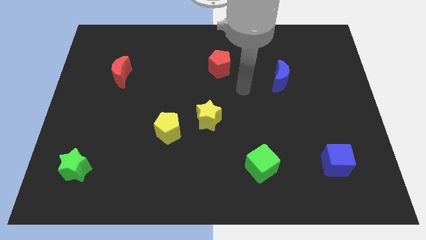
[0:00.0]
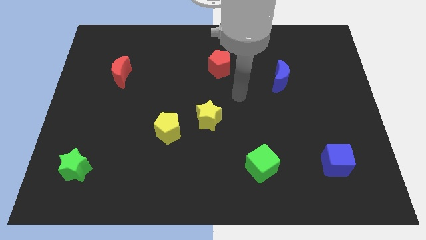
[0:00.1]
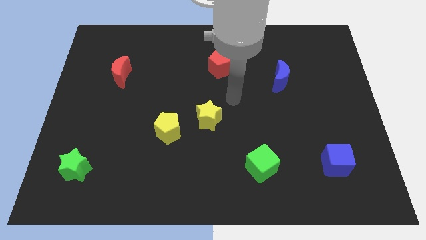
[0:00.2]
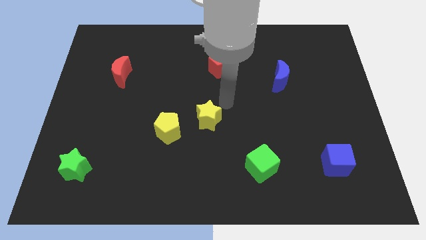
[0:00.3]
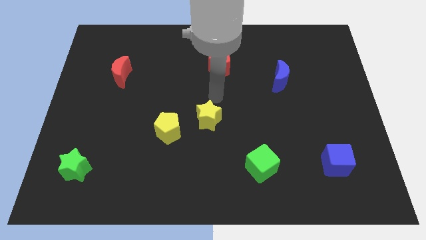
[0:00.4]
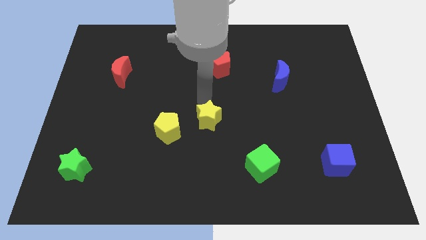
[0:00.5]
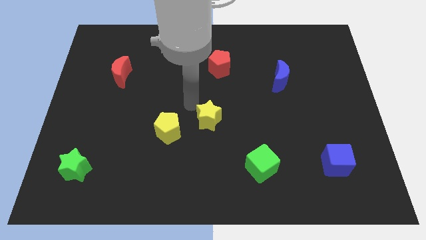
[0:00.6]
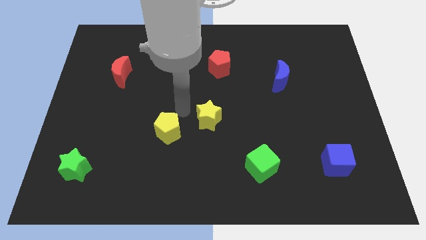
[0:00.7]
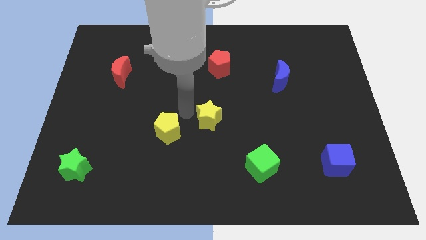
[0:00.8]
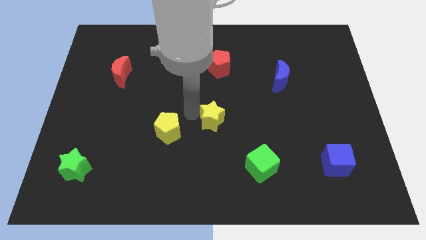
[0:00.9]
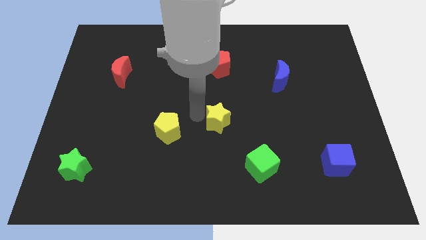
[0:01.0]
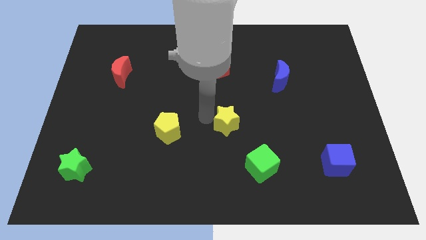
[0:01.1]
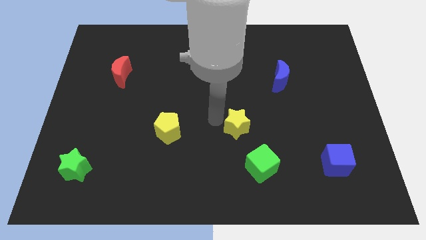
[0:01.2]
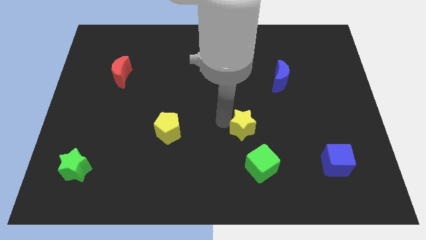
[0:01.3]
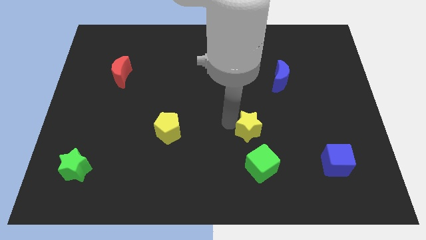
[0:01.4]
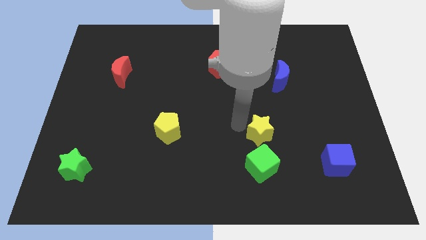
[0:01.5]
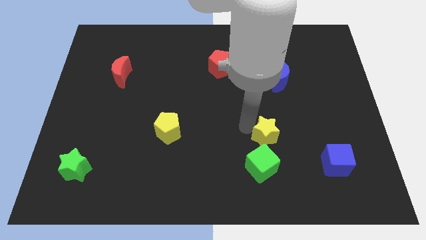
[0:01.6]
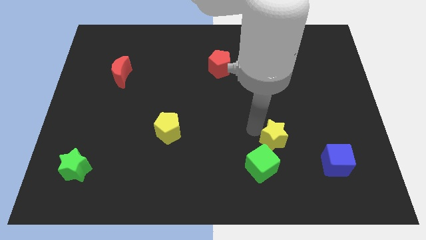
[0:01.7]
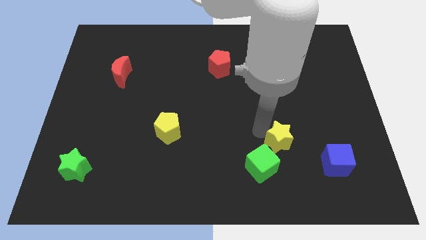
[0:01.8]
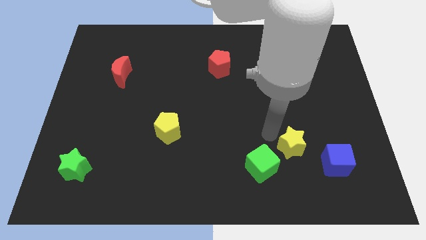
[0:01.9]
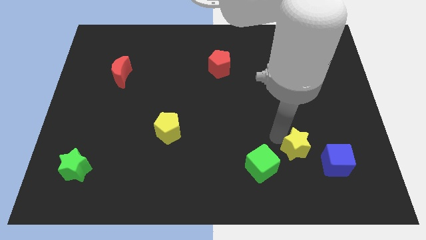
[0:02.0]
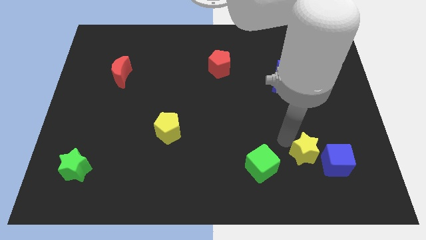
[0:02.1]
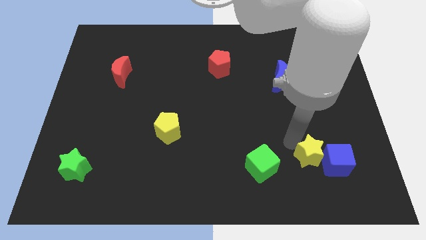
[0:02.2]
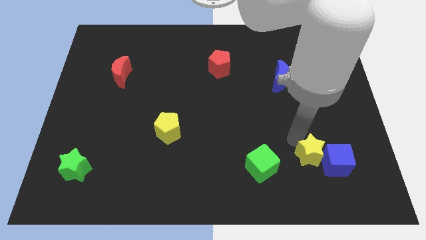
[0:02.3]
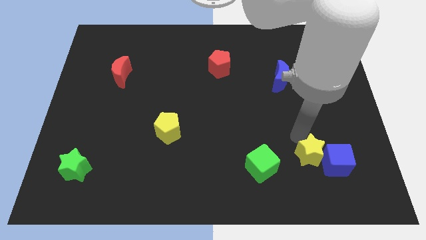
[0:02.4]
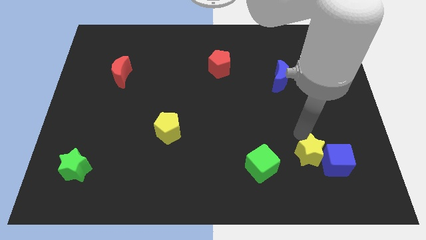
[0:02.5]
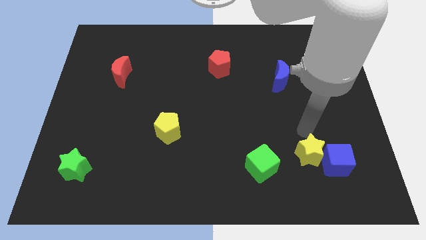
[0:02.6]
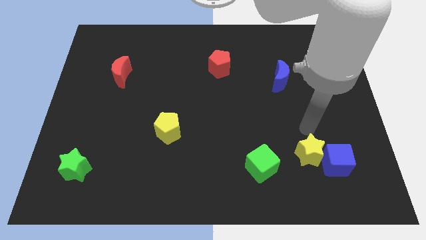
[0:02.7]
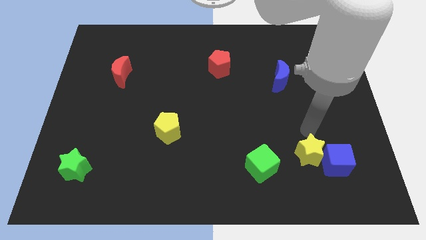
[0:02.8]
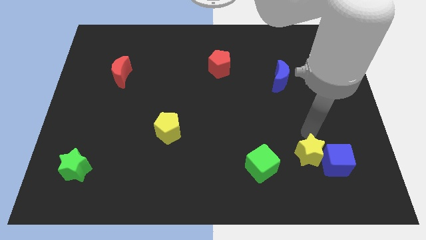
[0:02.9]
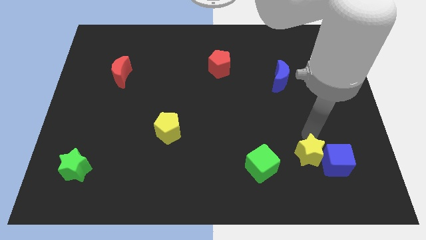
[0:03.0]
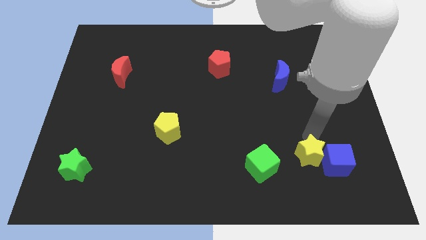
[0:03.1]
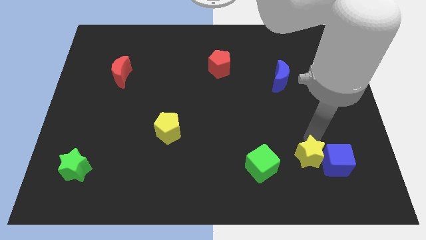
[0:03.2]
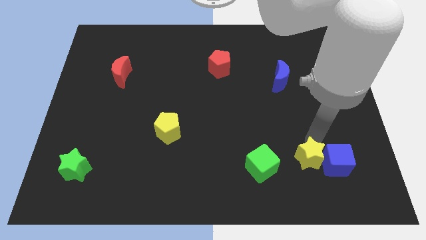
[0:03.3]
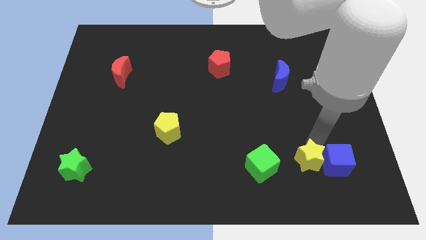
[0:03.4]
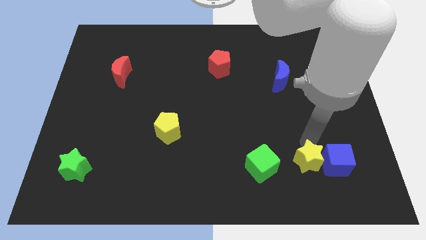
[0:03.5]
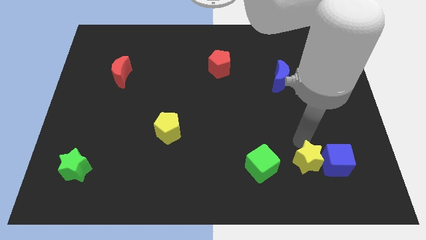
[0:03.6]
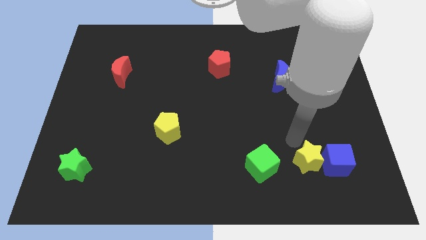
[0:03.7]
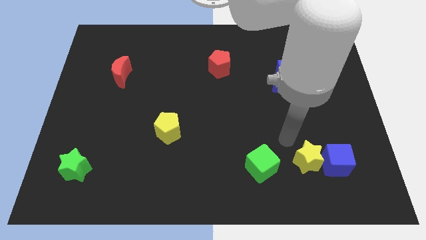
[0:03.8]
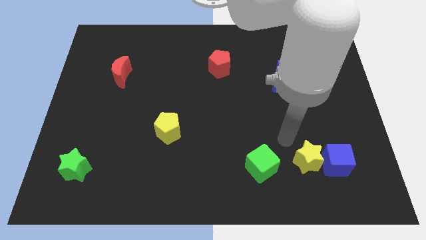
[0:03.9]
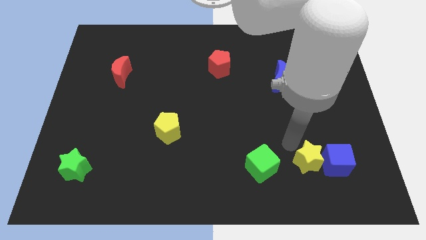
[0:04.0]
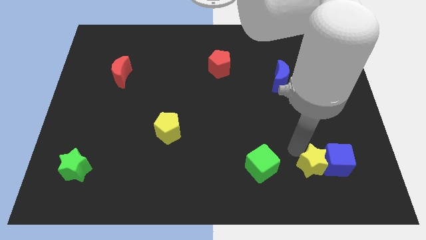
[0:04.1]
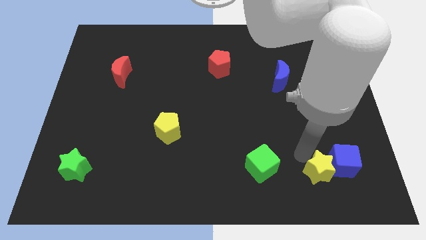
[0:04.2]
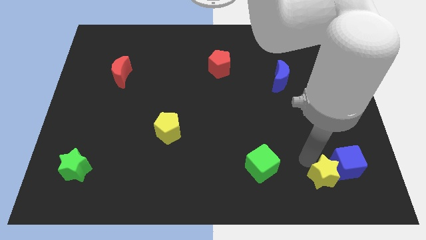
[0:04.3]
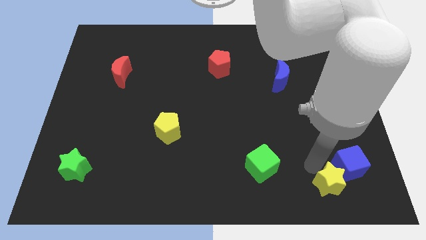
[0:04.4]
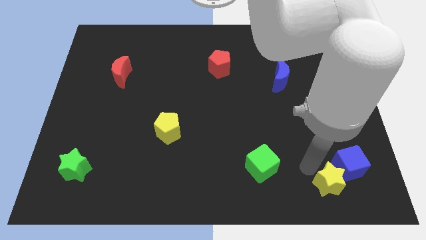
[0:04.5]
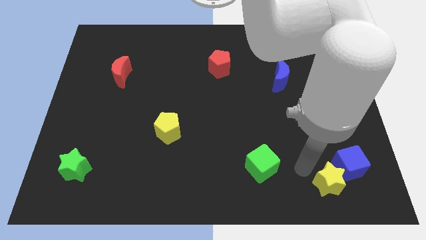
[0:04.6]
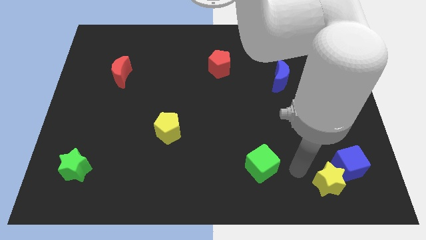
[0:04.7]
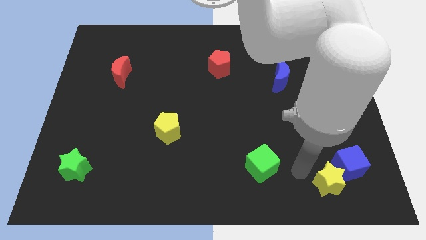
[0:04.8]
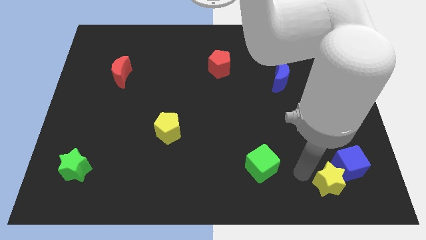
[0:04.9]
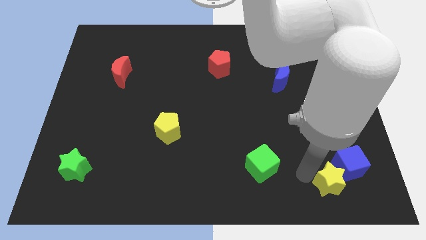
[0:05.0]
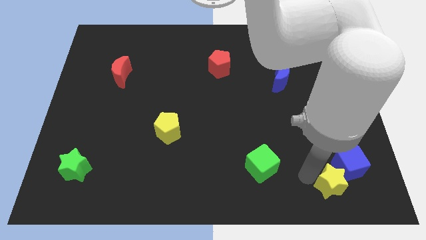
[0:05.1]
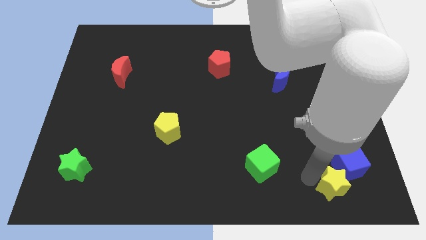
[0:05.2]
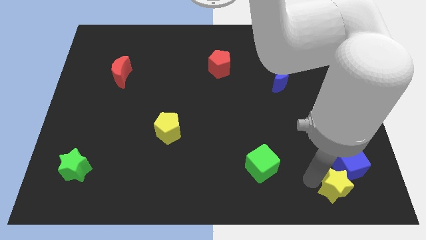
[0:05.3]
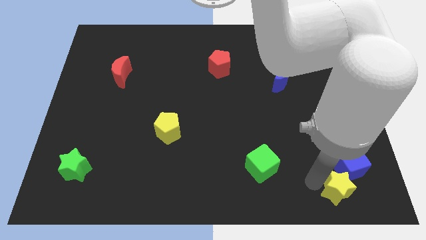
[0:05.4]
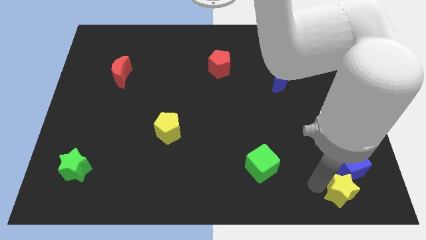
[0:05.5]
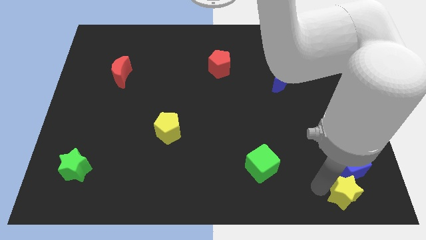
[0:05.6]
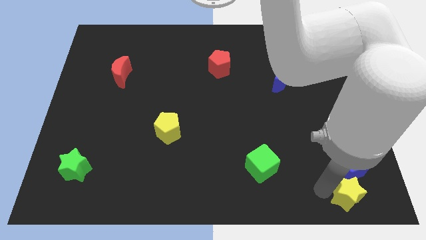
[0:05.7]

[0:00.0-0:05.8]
put the yellow star to the bottom right of the board

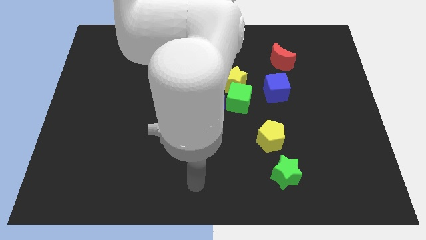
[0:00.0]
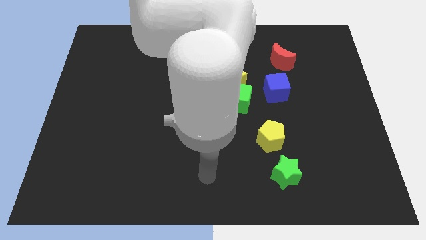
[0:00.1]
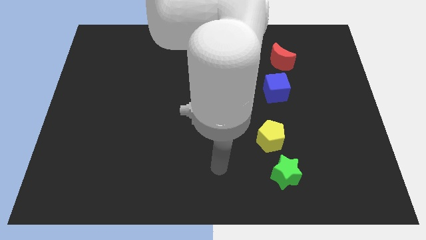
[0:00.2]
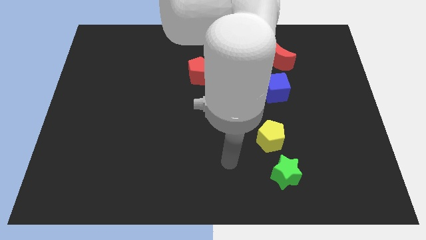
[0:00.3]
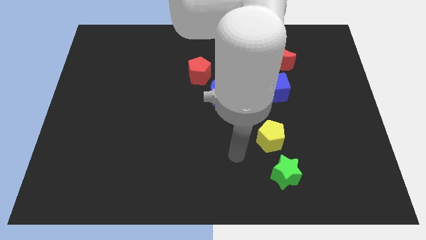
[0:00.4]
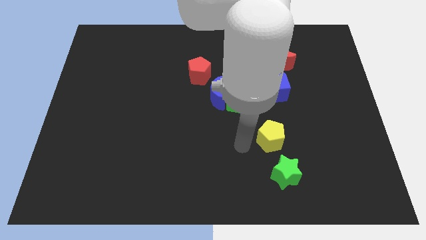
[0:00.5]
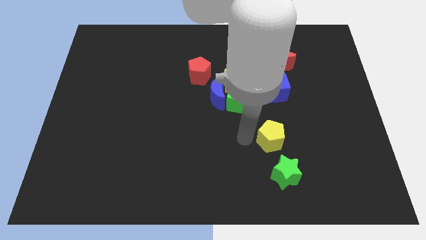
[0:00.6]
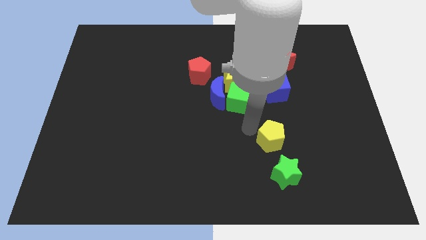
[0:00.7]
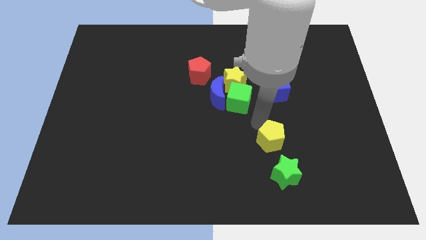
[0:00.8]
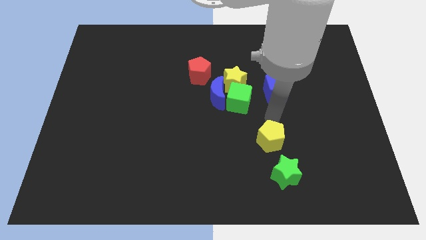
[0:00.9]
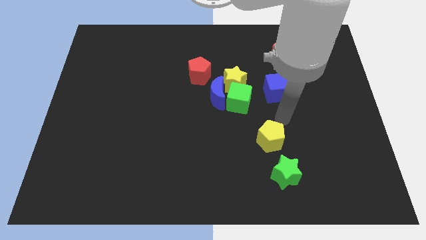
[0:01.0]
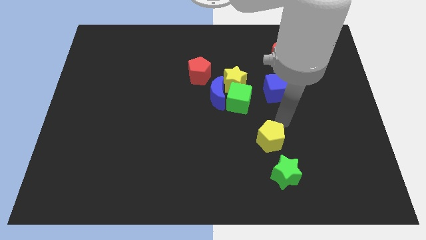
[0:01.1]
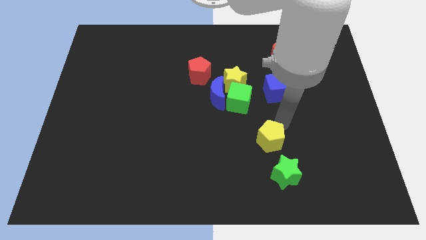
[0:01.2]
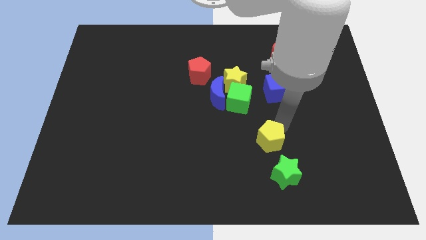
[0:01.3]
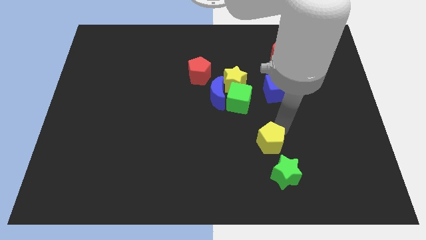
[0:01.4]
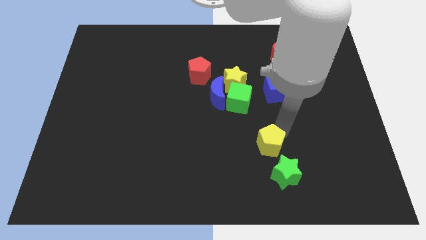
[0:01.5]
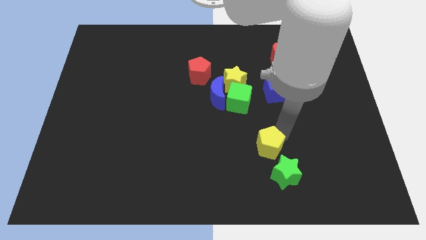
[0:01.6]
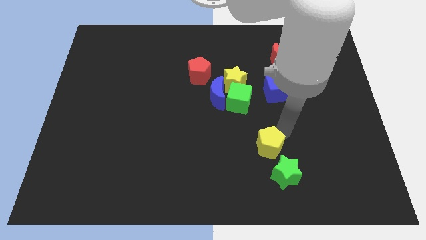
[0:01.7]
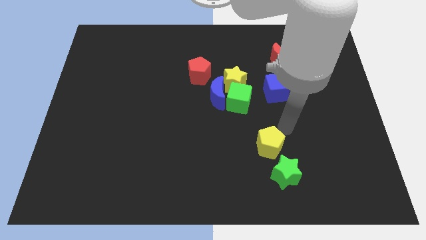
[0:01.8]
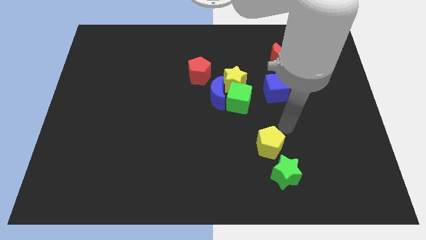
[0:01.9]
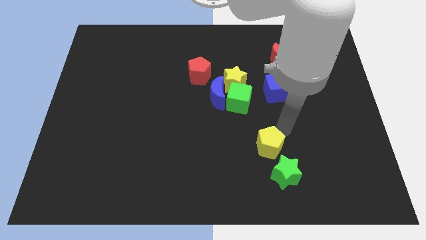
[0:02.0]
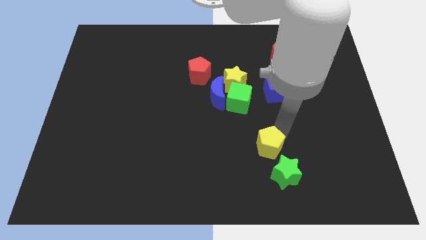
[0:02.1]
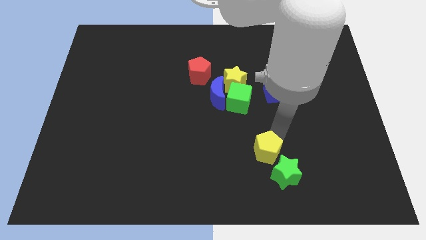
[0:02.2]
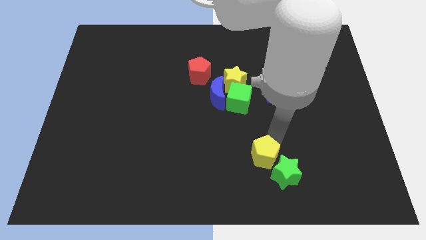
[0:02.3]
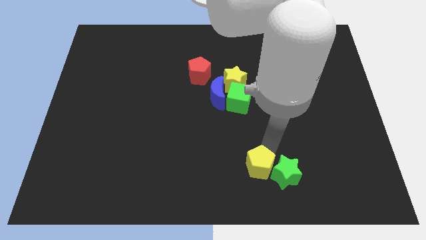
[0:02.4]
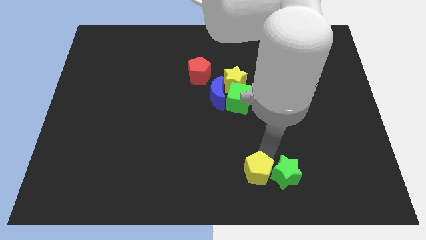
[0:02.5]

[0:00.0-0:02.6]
push the yellow pentagon to the bottom side
